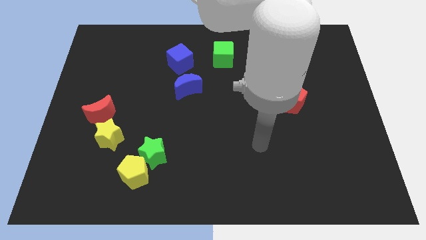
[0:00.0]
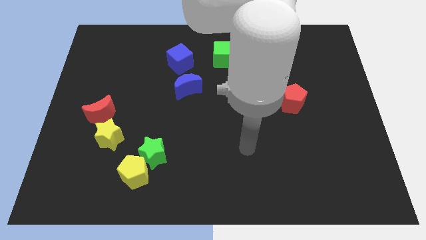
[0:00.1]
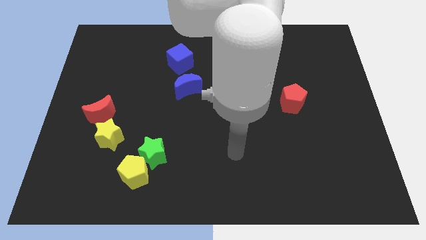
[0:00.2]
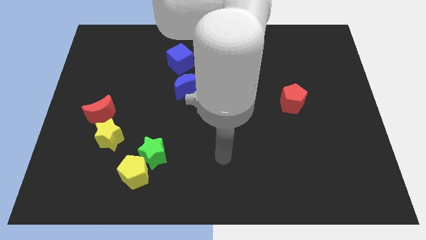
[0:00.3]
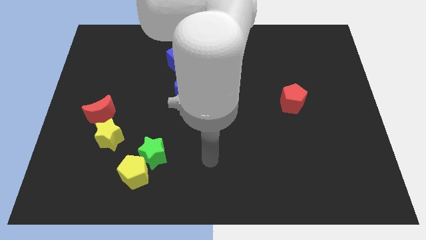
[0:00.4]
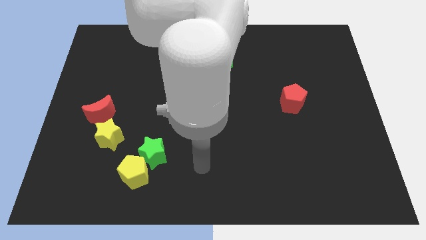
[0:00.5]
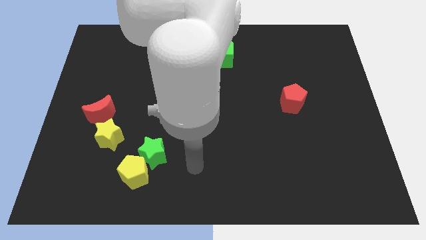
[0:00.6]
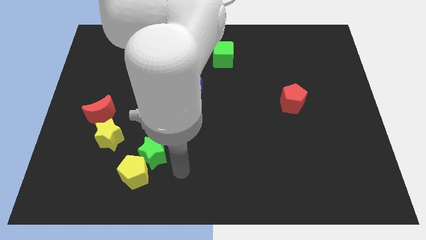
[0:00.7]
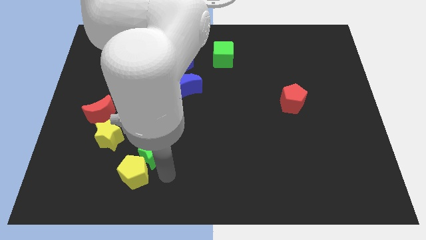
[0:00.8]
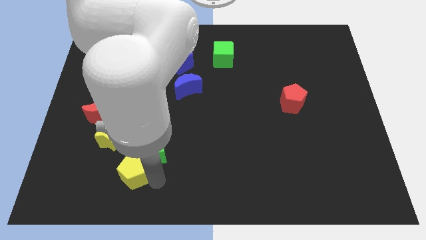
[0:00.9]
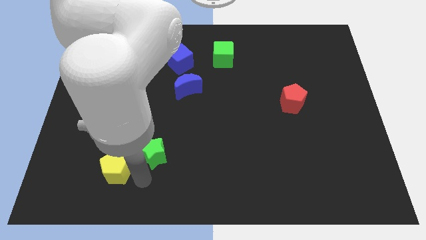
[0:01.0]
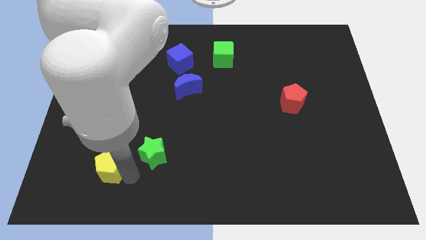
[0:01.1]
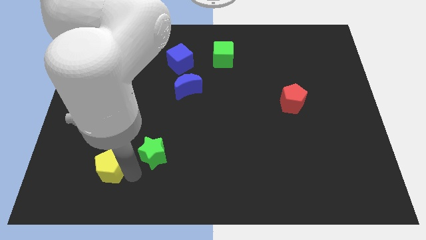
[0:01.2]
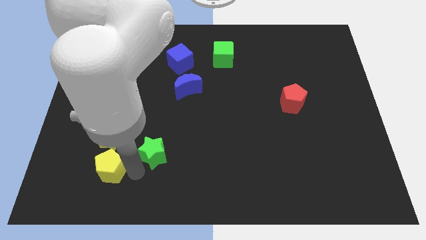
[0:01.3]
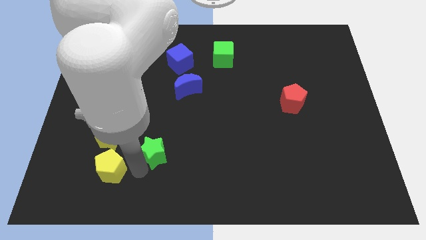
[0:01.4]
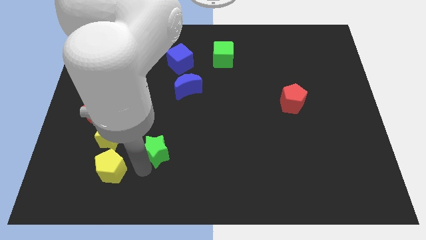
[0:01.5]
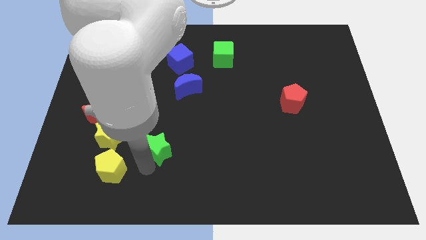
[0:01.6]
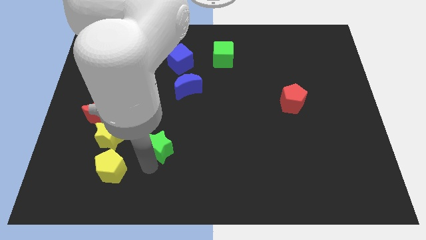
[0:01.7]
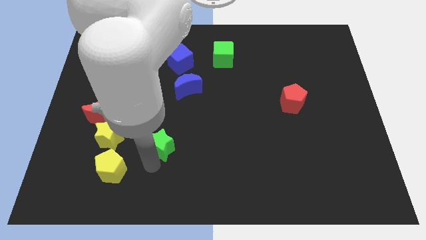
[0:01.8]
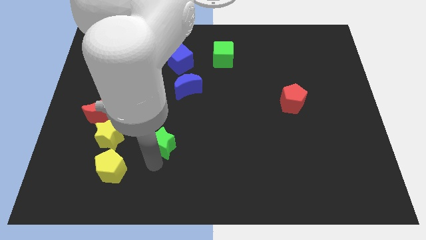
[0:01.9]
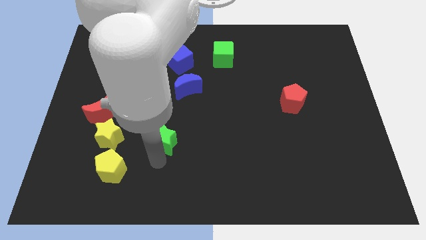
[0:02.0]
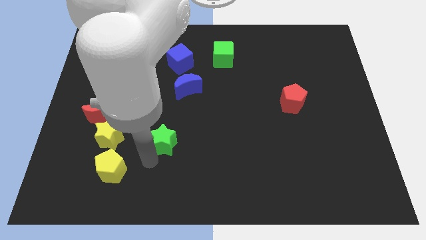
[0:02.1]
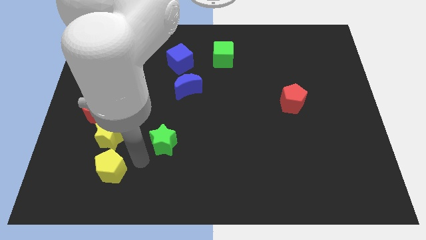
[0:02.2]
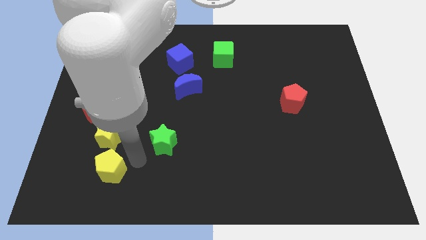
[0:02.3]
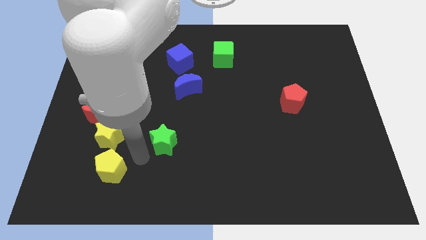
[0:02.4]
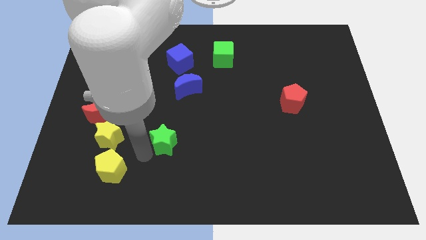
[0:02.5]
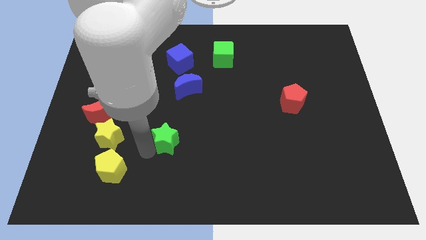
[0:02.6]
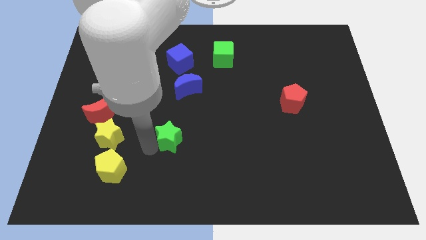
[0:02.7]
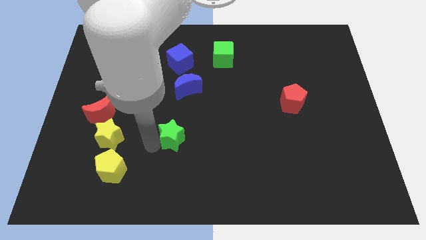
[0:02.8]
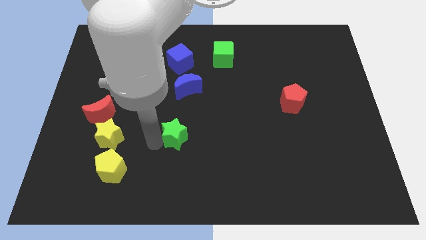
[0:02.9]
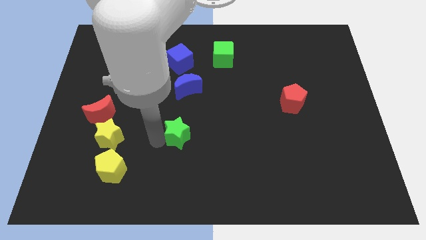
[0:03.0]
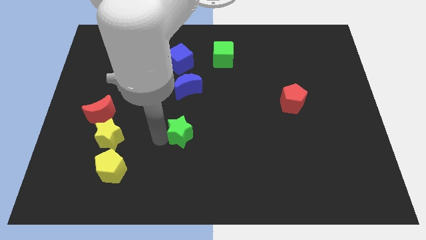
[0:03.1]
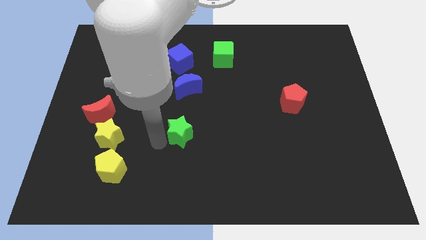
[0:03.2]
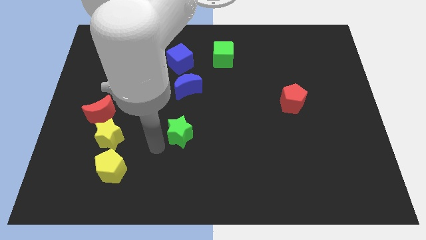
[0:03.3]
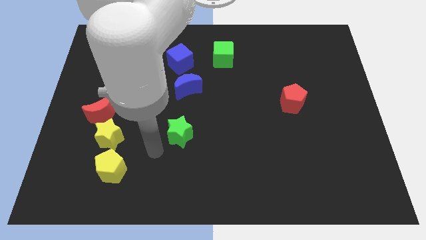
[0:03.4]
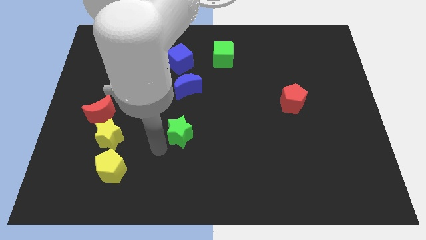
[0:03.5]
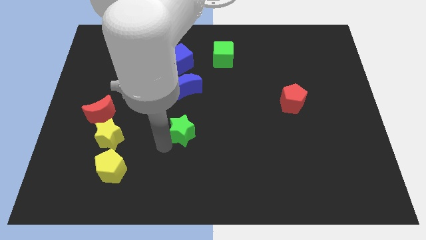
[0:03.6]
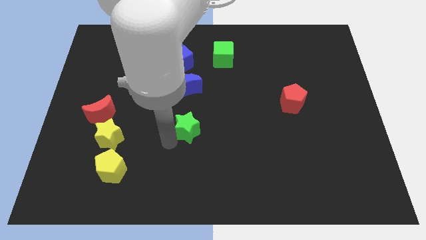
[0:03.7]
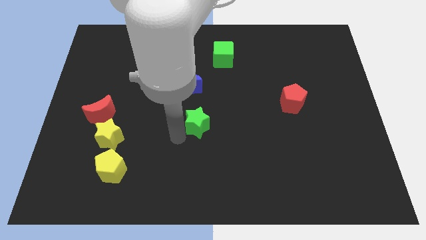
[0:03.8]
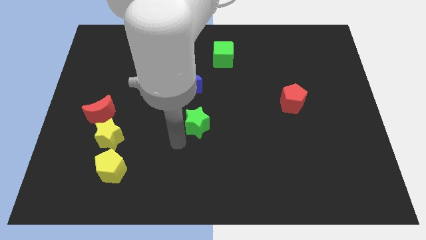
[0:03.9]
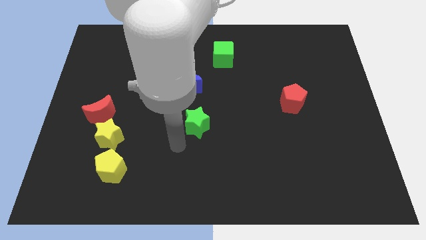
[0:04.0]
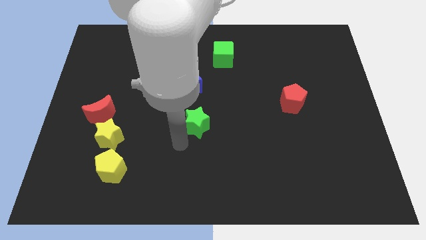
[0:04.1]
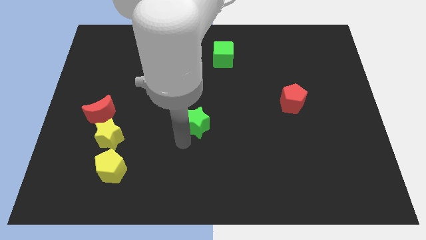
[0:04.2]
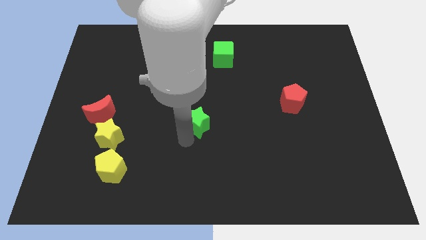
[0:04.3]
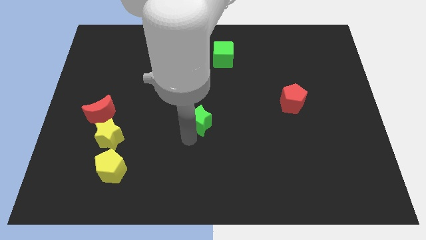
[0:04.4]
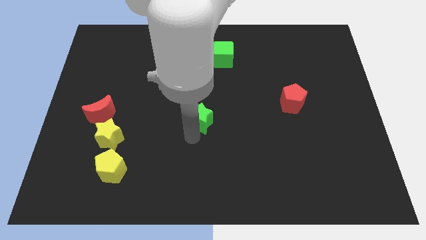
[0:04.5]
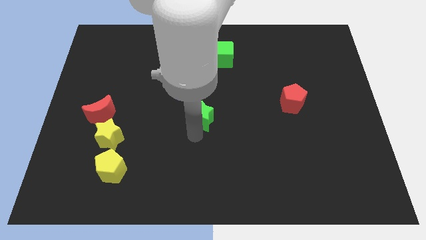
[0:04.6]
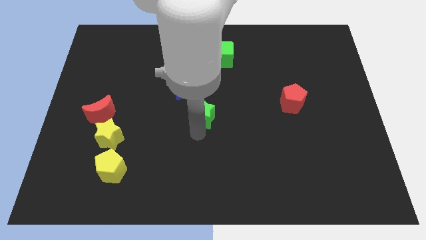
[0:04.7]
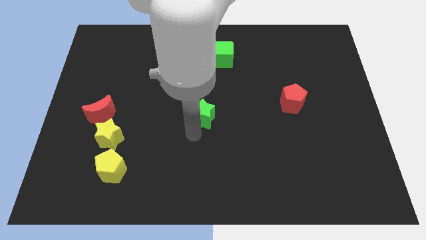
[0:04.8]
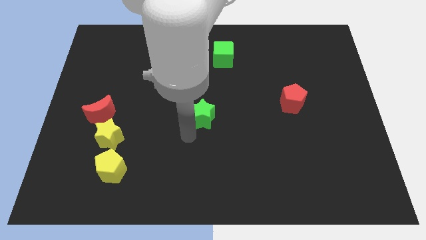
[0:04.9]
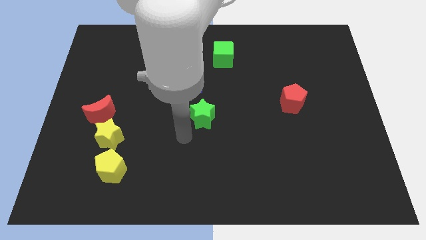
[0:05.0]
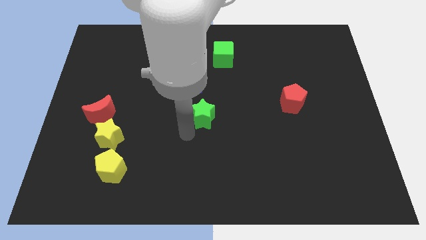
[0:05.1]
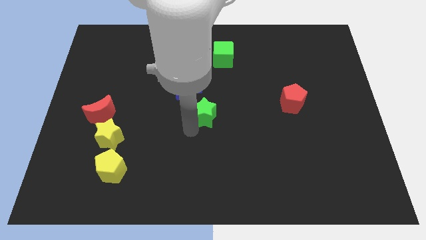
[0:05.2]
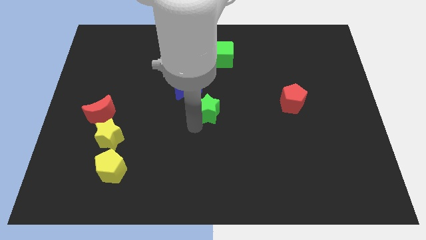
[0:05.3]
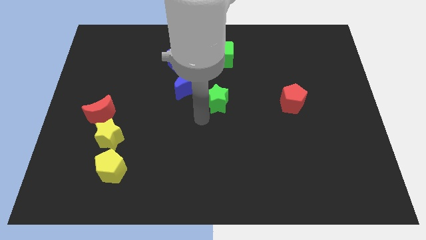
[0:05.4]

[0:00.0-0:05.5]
move the green star upwards and right diagonally

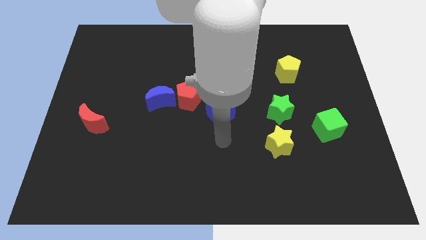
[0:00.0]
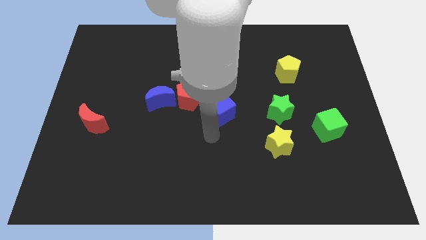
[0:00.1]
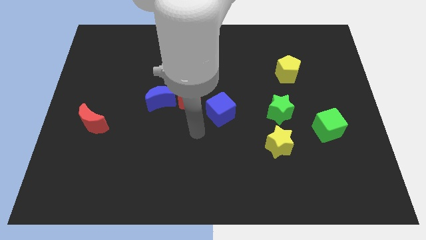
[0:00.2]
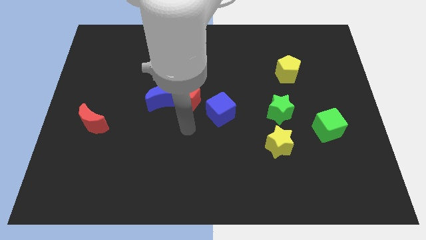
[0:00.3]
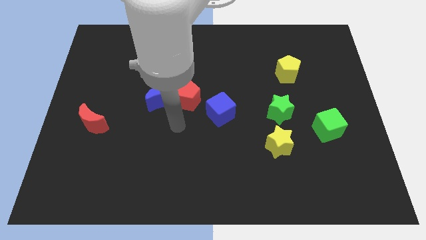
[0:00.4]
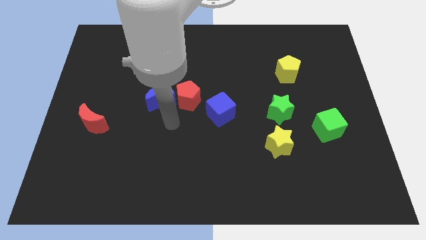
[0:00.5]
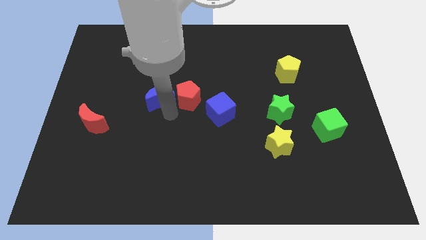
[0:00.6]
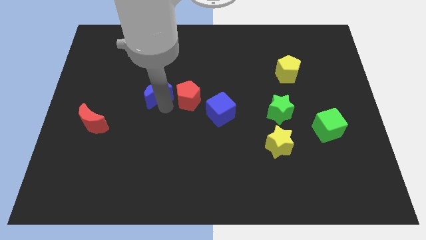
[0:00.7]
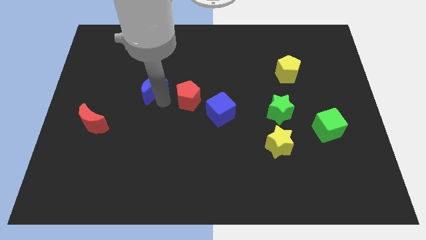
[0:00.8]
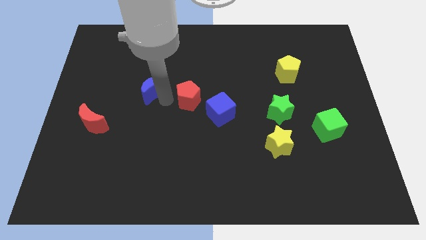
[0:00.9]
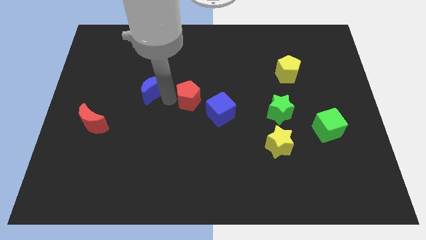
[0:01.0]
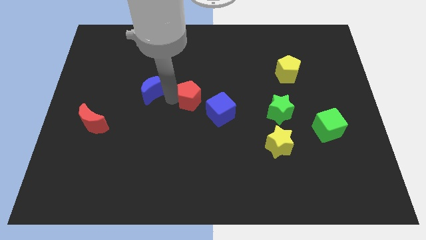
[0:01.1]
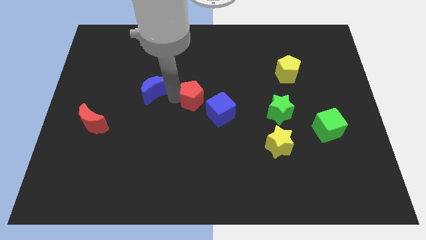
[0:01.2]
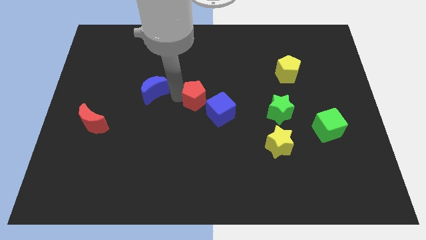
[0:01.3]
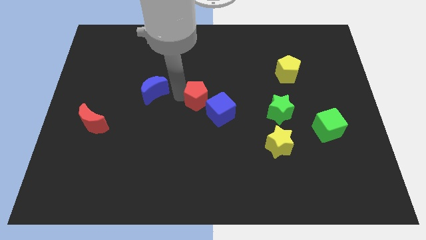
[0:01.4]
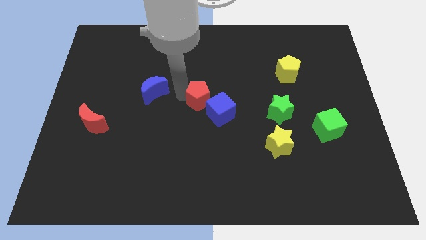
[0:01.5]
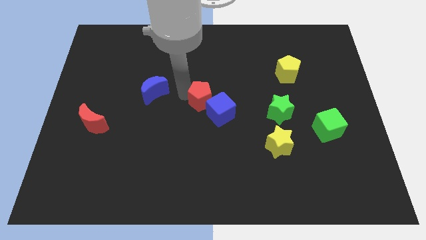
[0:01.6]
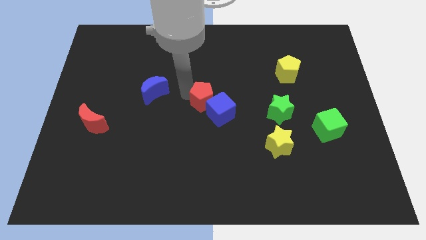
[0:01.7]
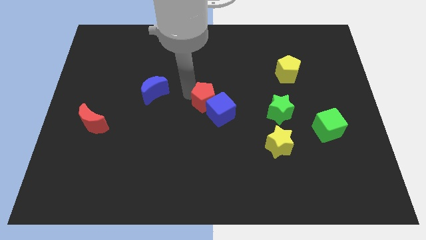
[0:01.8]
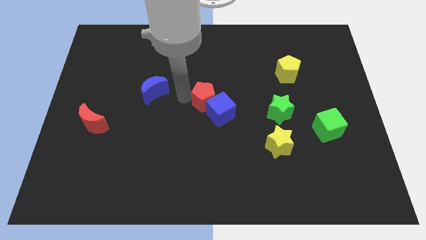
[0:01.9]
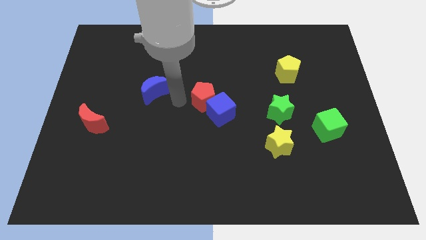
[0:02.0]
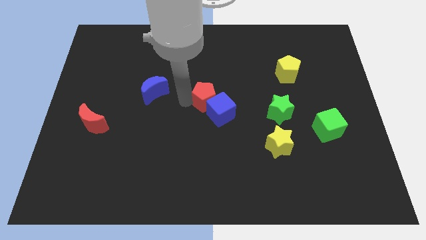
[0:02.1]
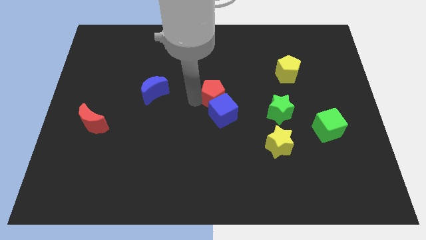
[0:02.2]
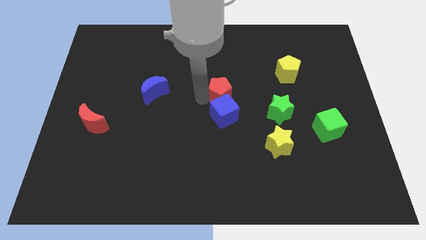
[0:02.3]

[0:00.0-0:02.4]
slide the red pentagon to the right a little bit

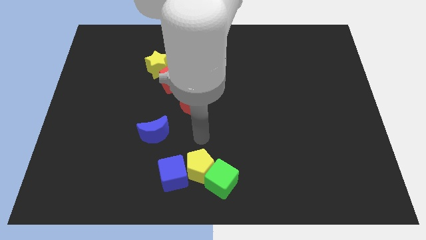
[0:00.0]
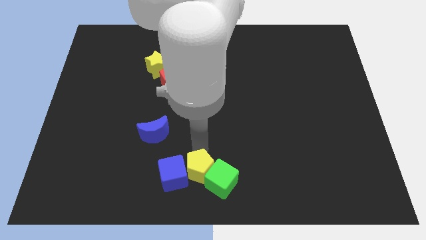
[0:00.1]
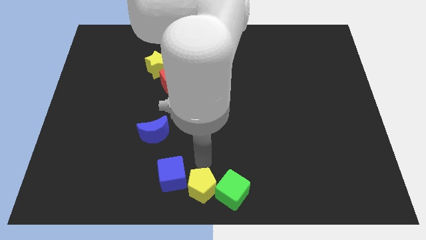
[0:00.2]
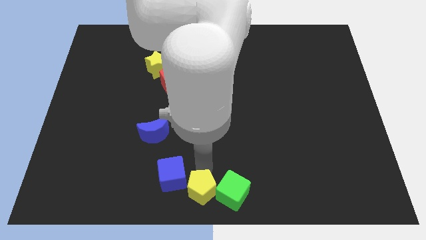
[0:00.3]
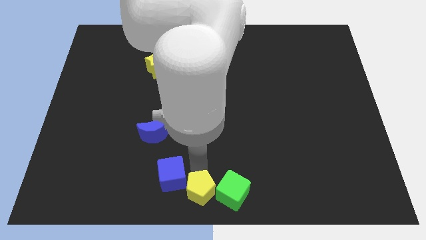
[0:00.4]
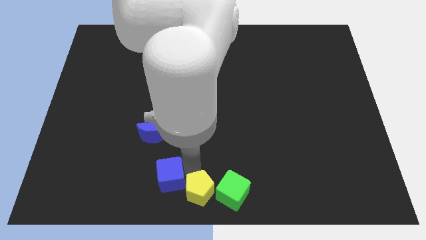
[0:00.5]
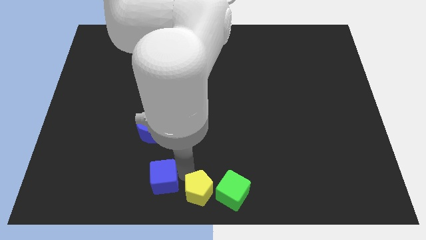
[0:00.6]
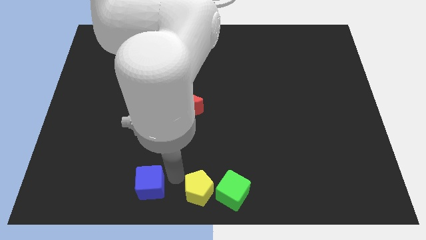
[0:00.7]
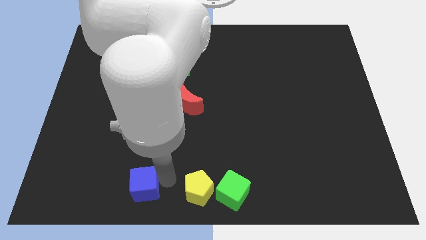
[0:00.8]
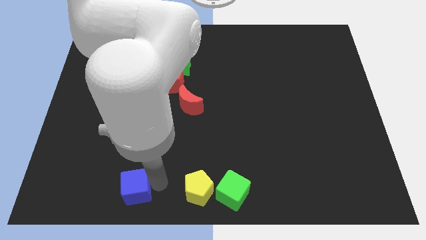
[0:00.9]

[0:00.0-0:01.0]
move the blue cube a little to the left
